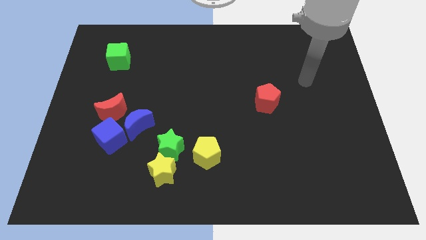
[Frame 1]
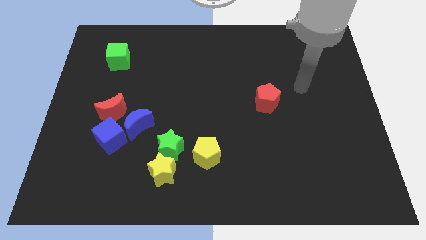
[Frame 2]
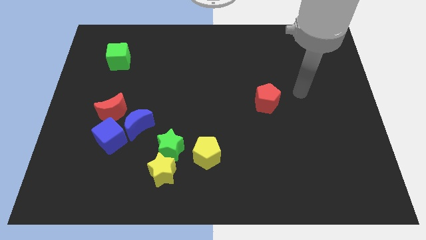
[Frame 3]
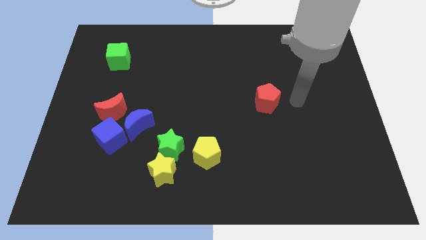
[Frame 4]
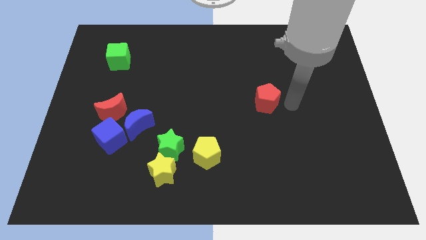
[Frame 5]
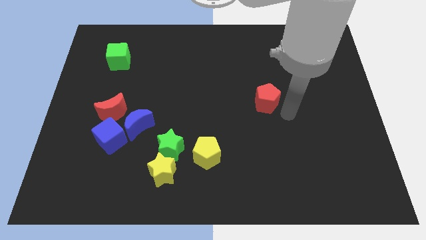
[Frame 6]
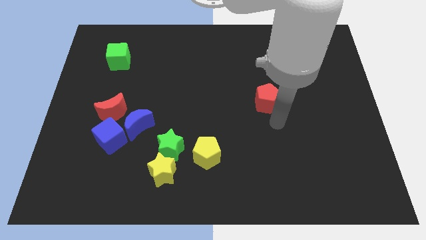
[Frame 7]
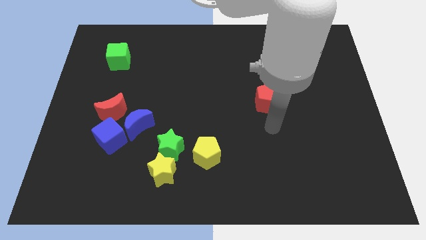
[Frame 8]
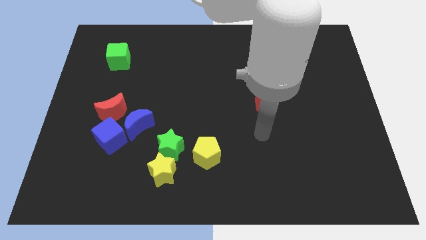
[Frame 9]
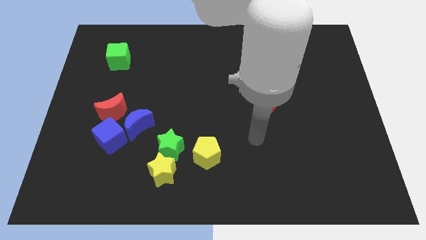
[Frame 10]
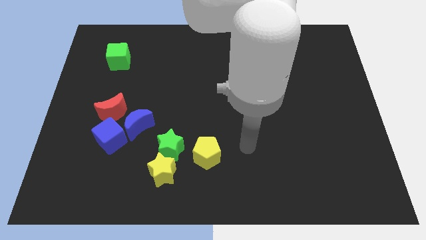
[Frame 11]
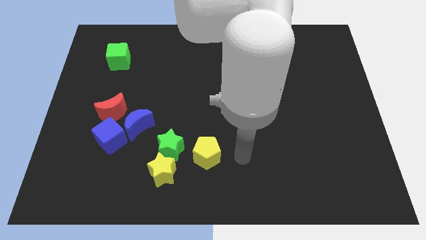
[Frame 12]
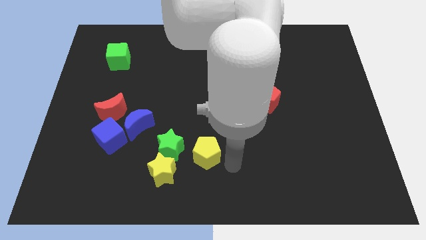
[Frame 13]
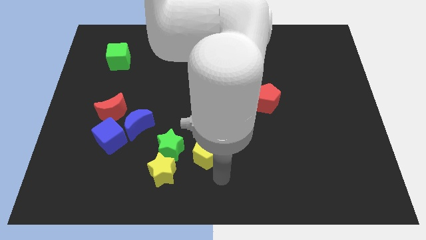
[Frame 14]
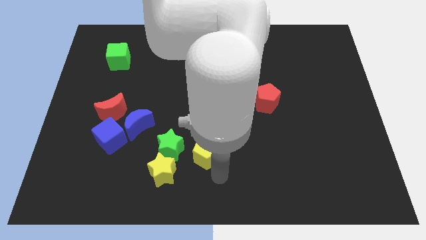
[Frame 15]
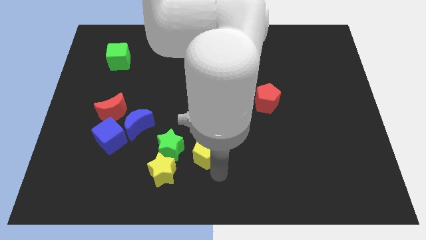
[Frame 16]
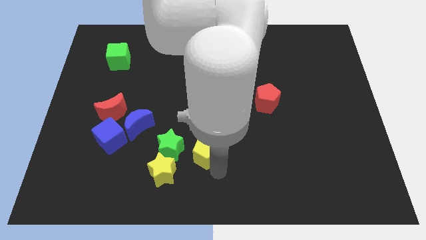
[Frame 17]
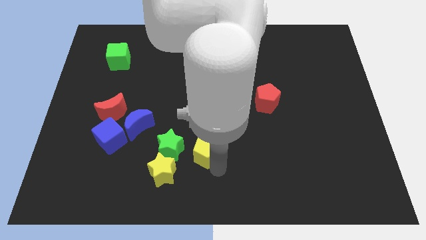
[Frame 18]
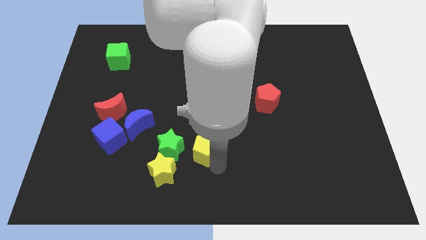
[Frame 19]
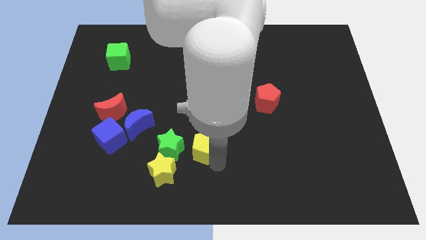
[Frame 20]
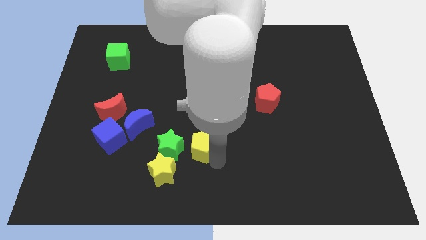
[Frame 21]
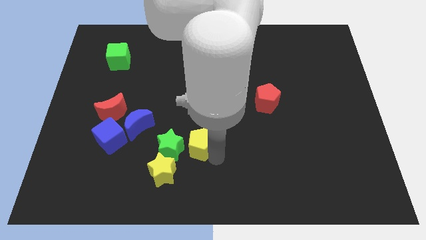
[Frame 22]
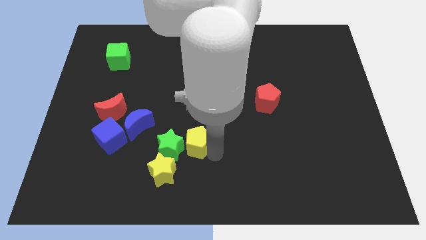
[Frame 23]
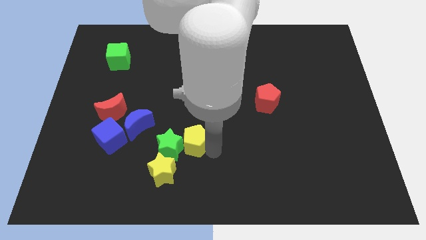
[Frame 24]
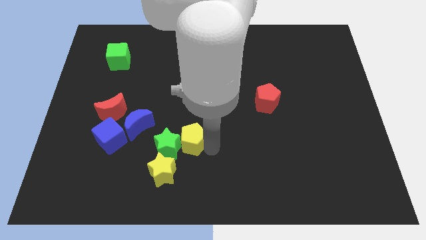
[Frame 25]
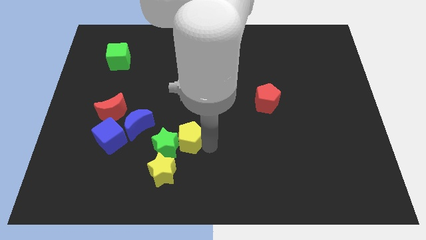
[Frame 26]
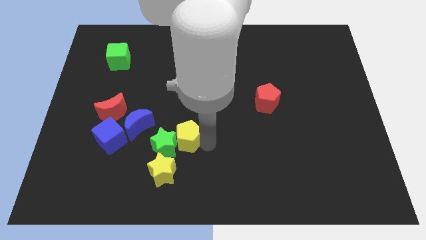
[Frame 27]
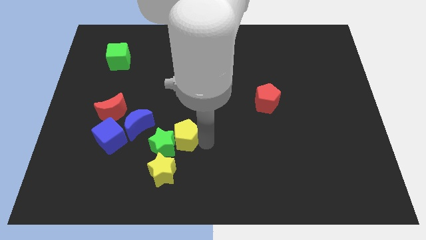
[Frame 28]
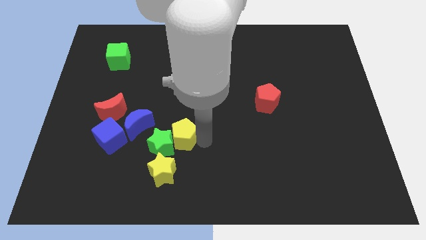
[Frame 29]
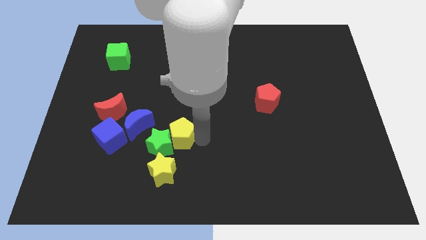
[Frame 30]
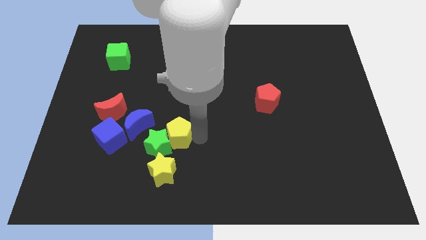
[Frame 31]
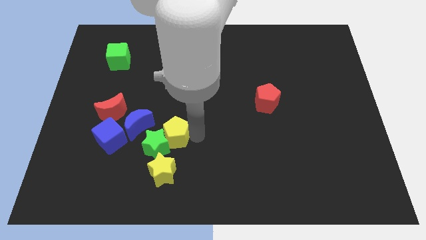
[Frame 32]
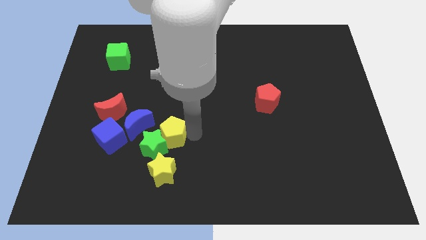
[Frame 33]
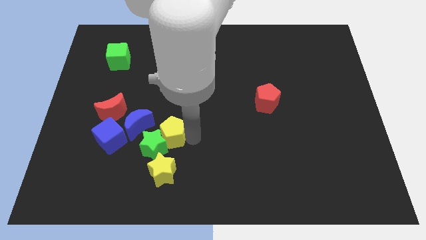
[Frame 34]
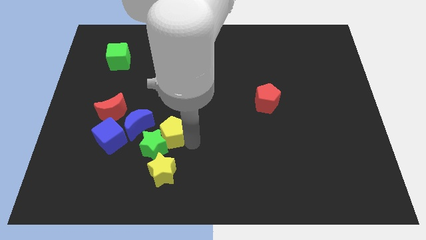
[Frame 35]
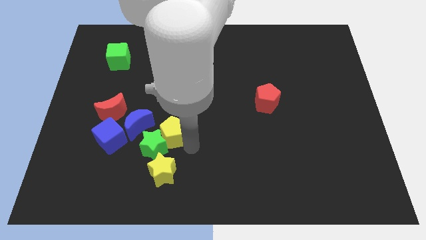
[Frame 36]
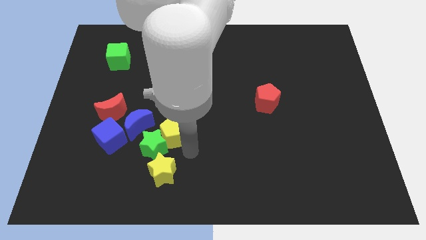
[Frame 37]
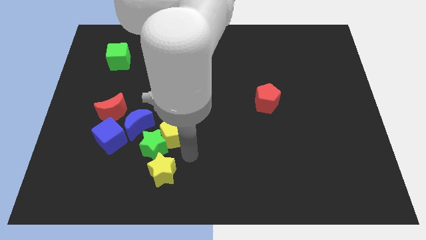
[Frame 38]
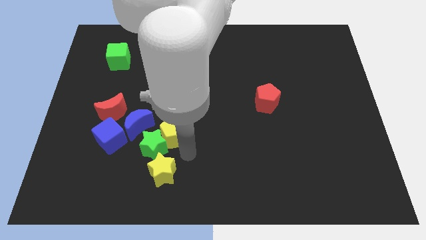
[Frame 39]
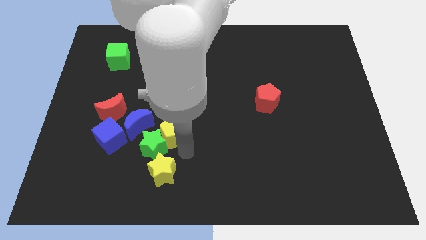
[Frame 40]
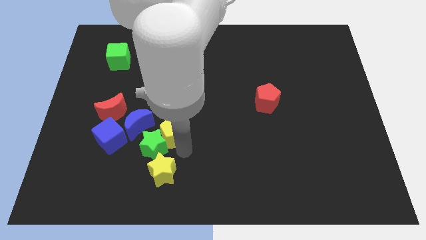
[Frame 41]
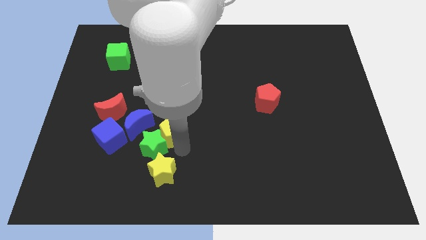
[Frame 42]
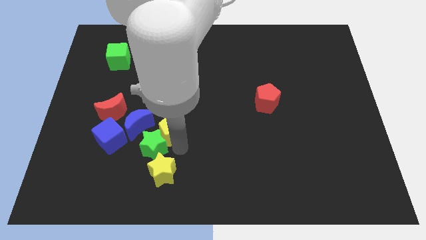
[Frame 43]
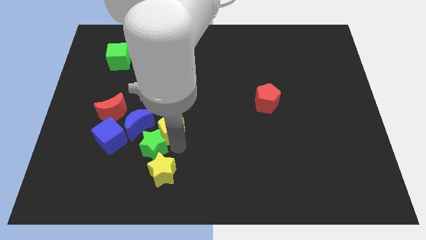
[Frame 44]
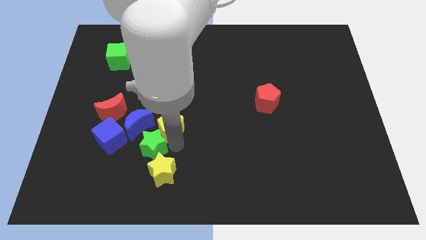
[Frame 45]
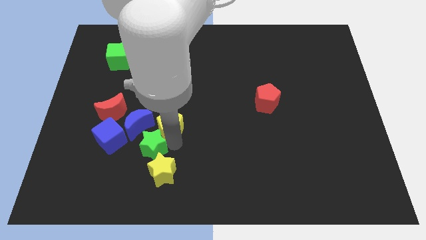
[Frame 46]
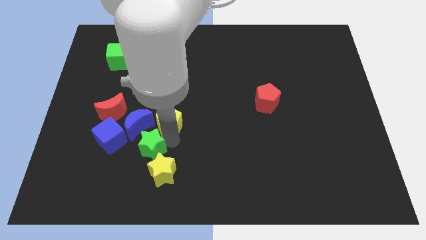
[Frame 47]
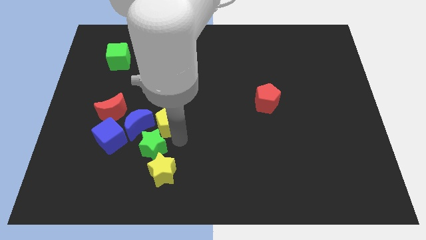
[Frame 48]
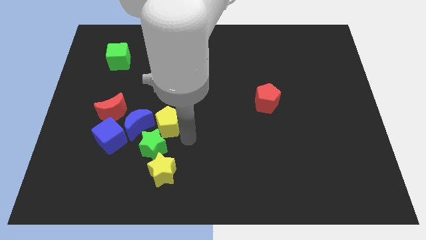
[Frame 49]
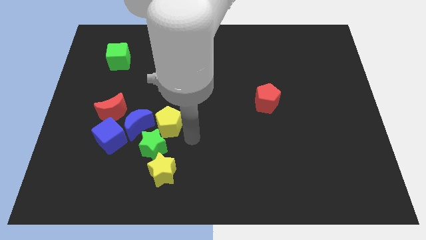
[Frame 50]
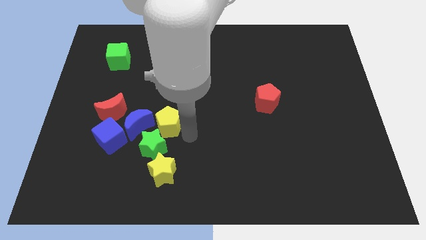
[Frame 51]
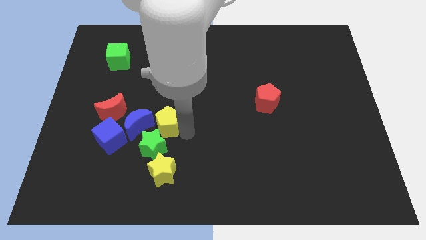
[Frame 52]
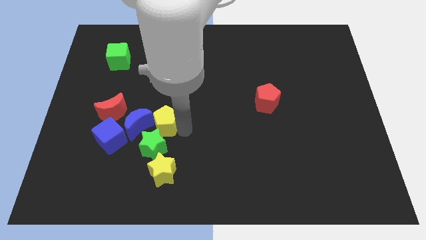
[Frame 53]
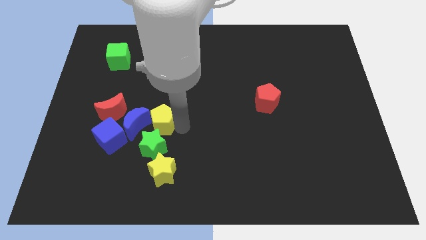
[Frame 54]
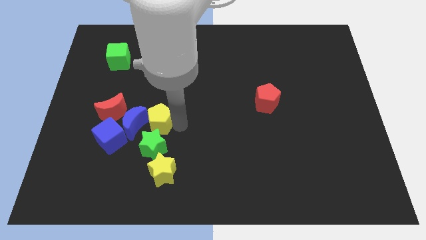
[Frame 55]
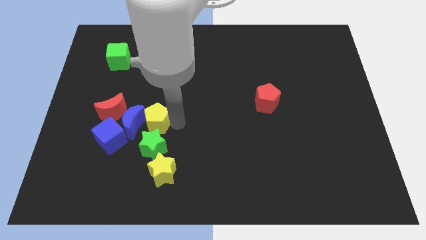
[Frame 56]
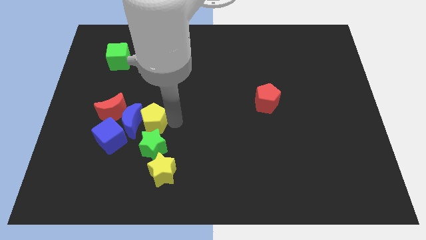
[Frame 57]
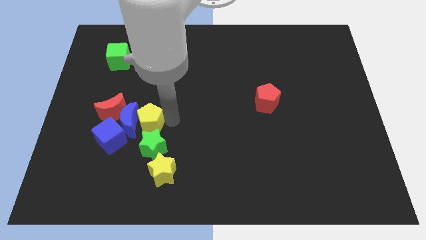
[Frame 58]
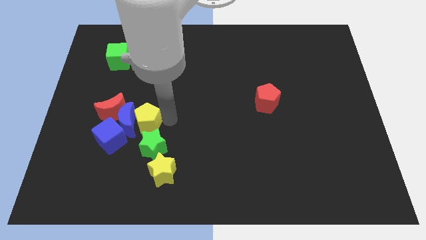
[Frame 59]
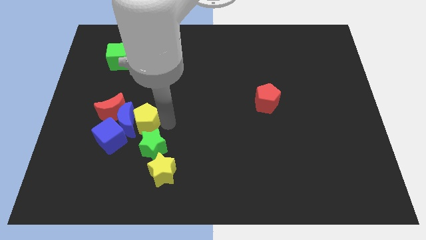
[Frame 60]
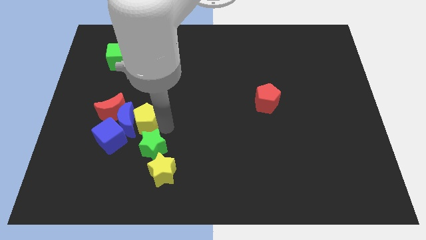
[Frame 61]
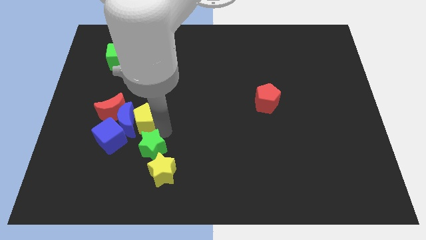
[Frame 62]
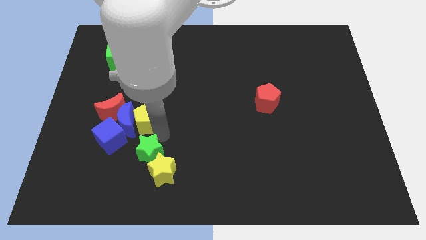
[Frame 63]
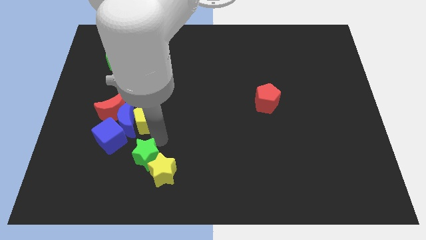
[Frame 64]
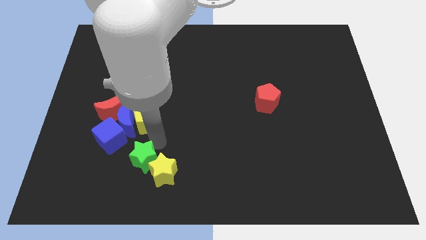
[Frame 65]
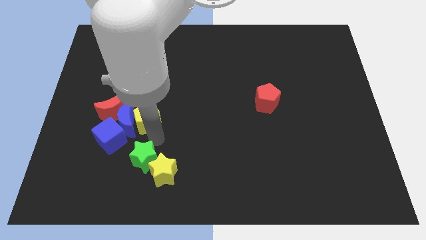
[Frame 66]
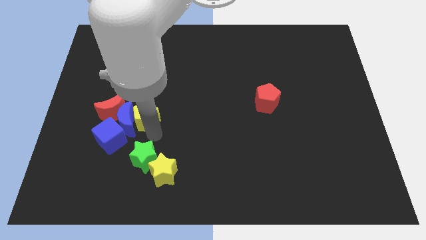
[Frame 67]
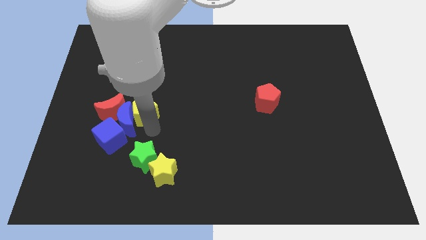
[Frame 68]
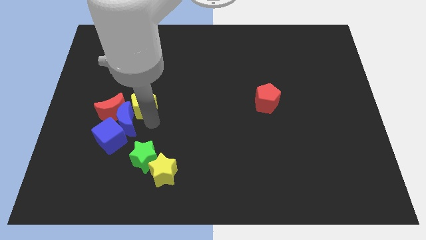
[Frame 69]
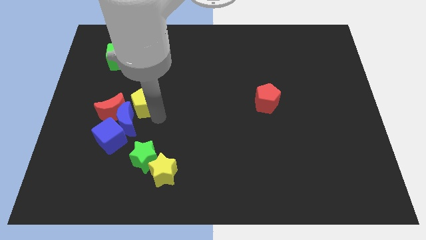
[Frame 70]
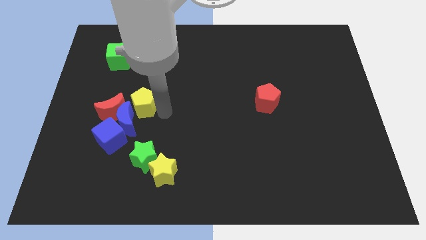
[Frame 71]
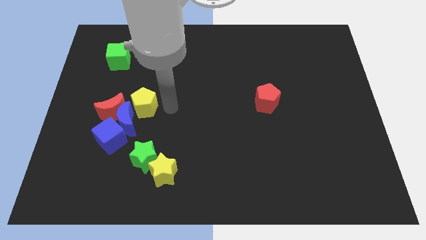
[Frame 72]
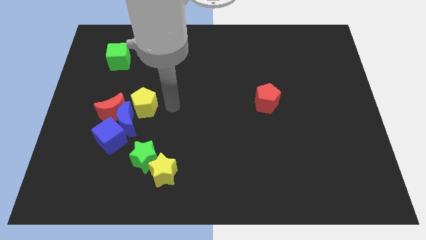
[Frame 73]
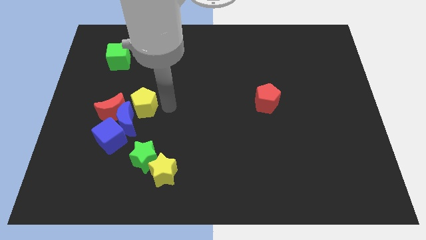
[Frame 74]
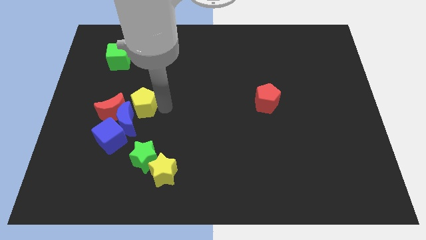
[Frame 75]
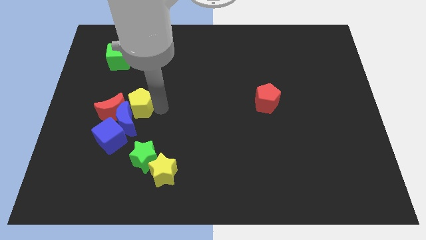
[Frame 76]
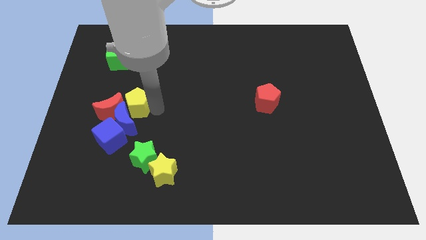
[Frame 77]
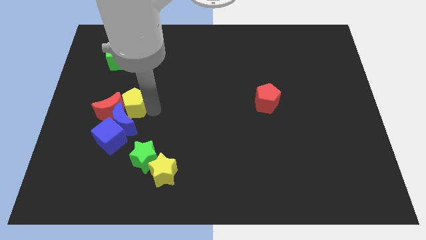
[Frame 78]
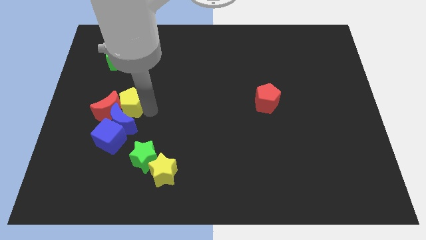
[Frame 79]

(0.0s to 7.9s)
push the yellow pentagon to the top left side of the blue moon
